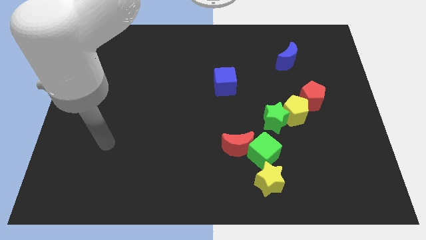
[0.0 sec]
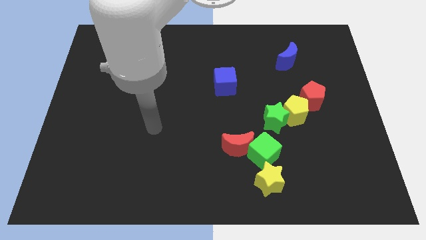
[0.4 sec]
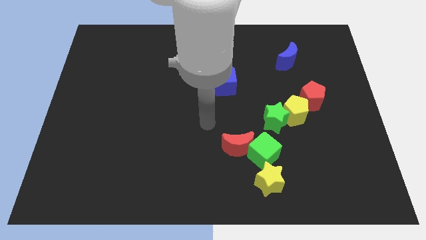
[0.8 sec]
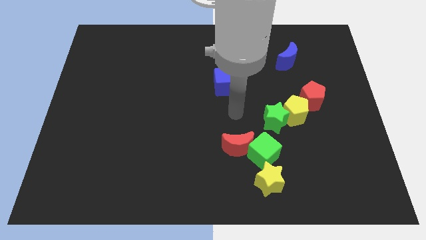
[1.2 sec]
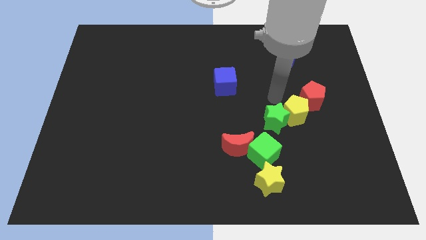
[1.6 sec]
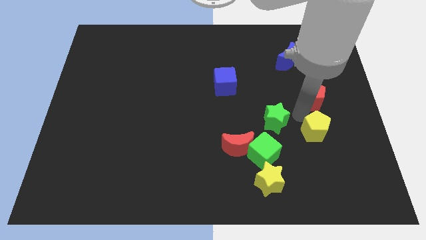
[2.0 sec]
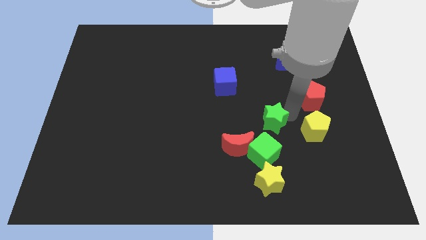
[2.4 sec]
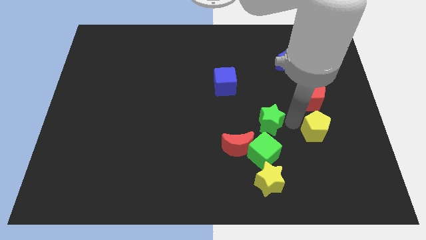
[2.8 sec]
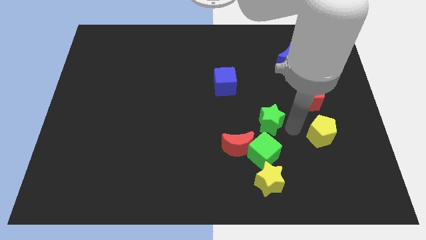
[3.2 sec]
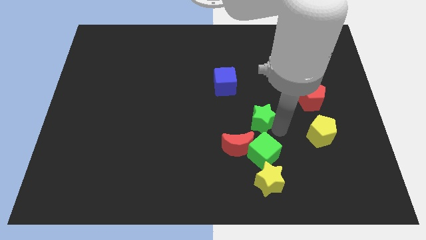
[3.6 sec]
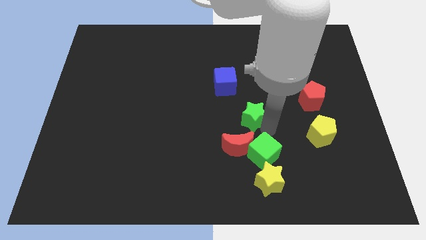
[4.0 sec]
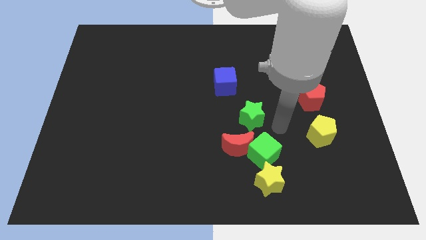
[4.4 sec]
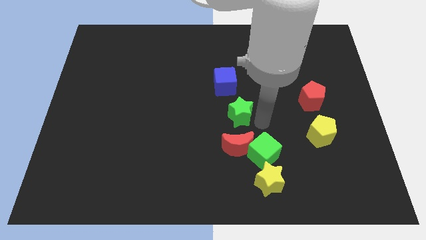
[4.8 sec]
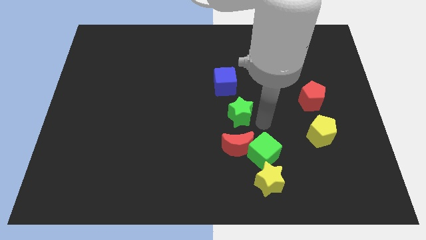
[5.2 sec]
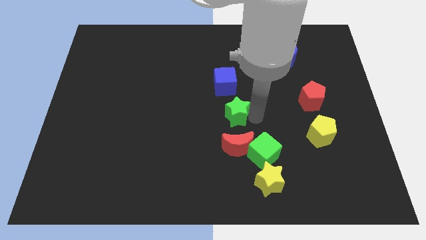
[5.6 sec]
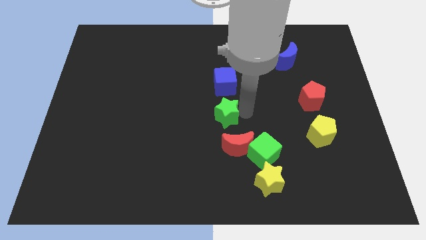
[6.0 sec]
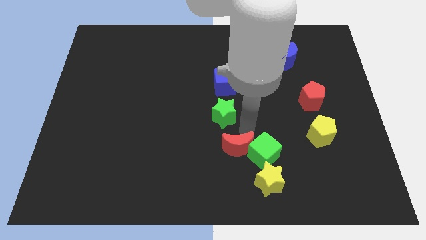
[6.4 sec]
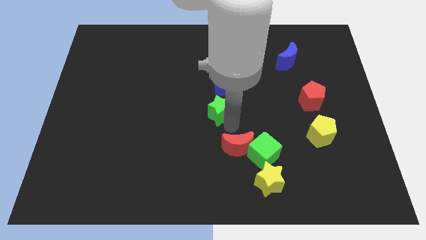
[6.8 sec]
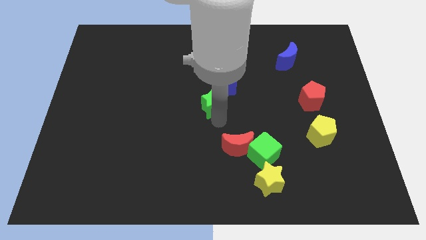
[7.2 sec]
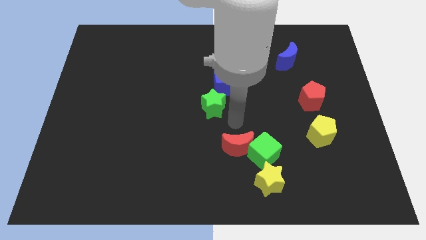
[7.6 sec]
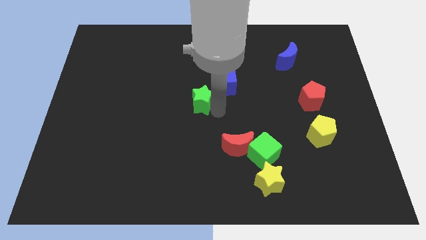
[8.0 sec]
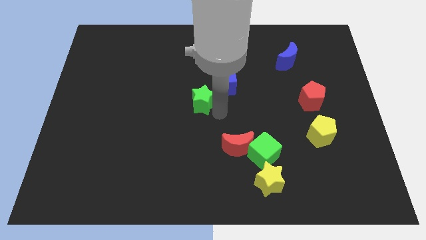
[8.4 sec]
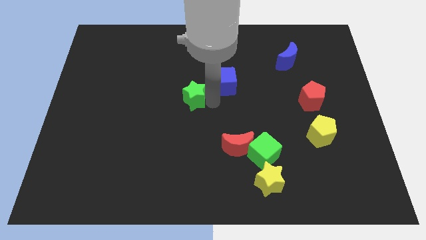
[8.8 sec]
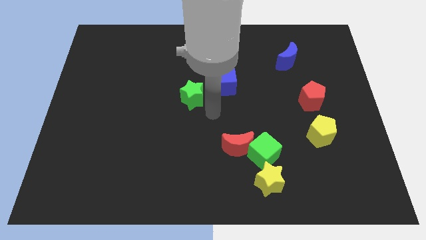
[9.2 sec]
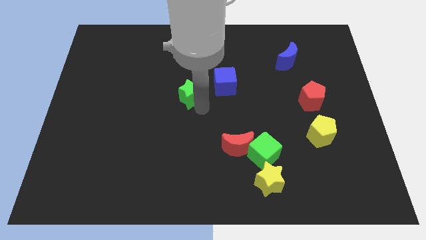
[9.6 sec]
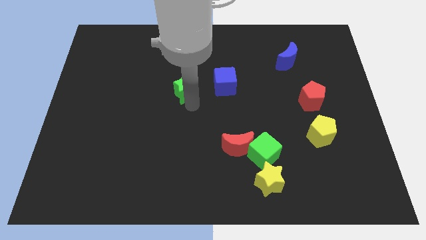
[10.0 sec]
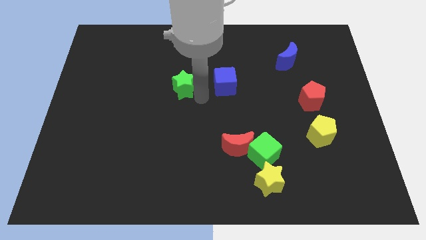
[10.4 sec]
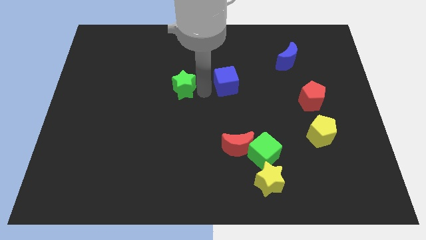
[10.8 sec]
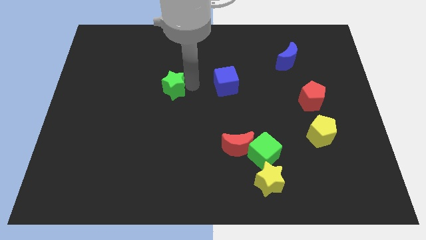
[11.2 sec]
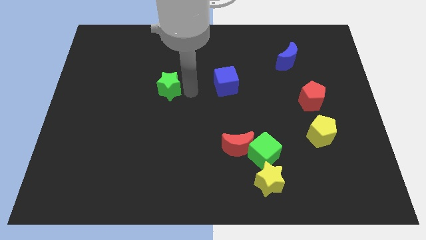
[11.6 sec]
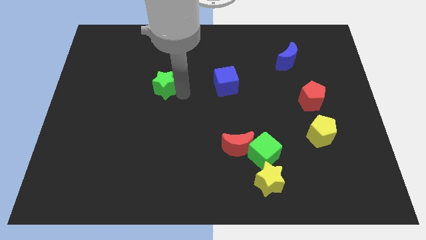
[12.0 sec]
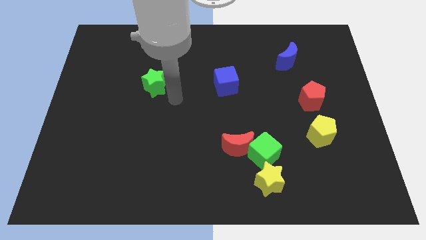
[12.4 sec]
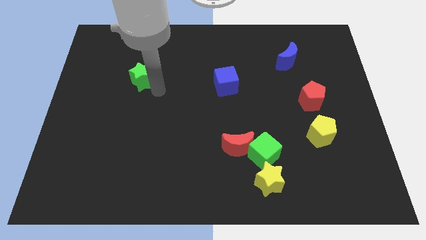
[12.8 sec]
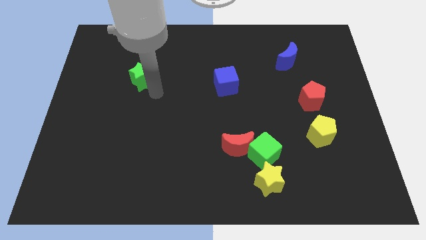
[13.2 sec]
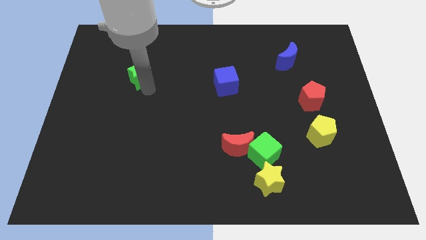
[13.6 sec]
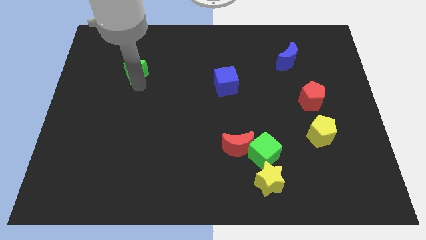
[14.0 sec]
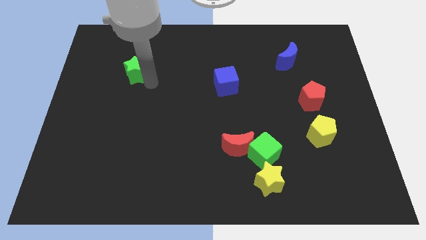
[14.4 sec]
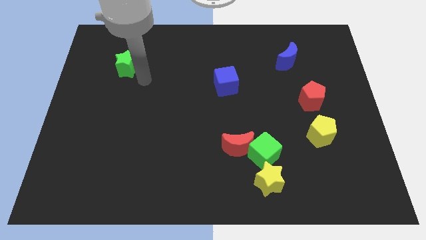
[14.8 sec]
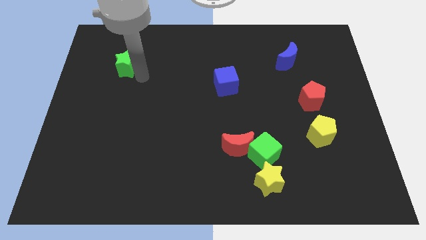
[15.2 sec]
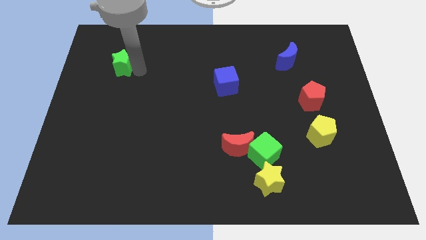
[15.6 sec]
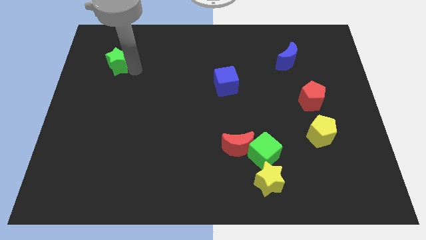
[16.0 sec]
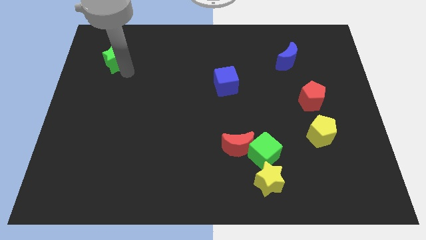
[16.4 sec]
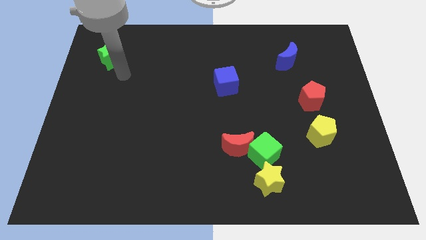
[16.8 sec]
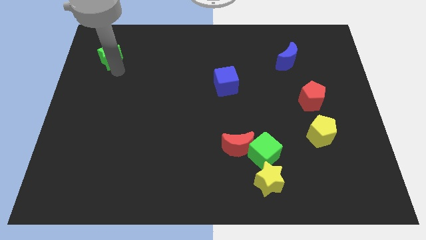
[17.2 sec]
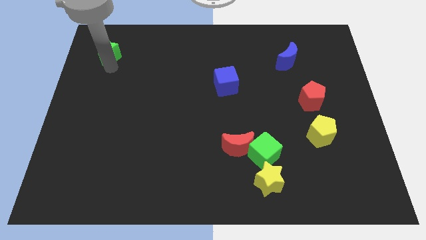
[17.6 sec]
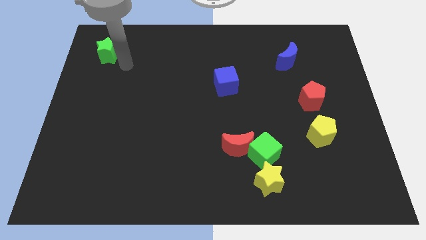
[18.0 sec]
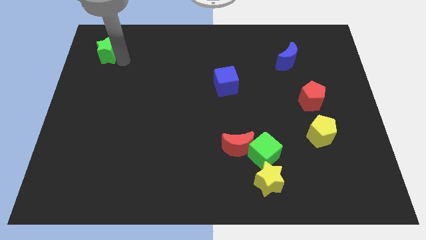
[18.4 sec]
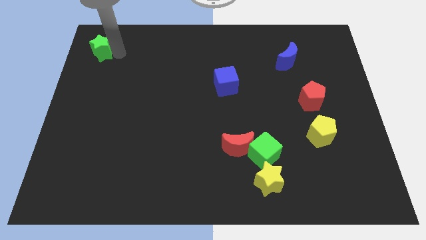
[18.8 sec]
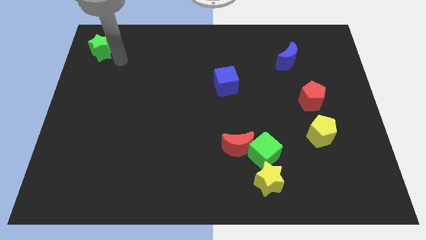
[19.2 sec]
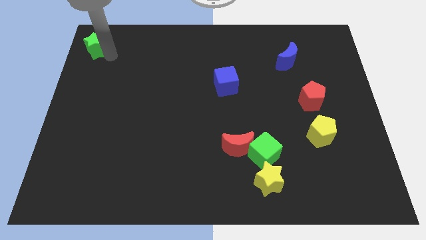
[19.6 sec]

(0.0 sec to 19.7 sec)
put the green star to the top left of the board
